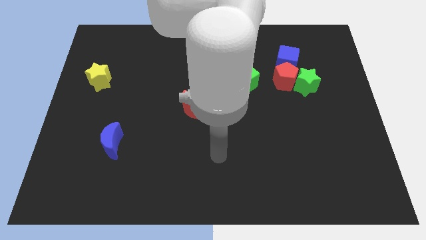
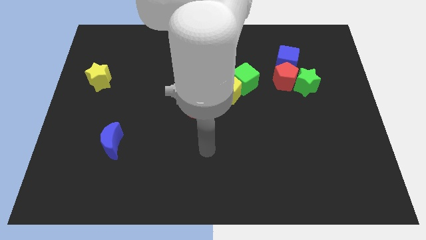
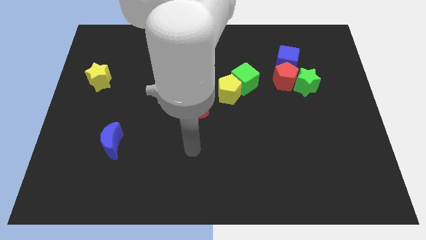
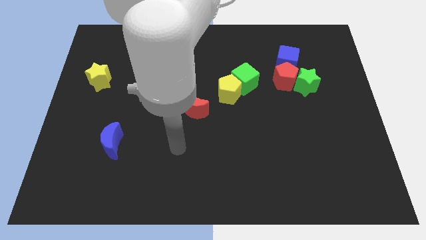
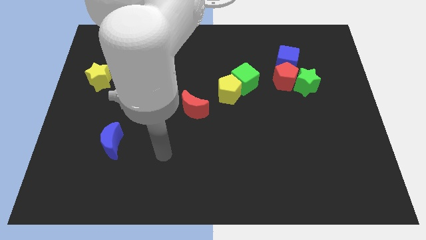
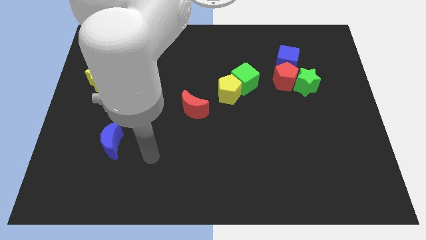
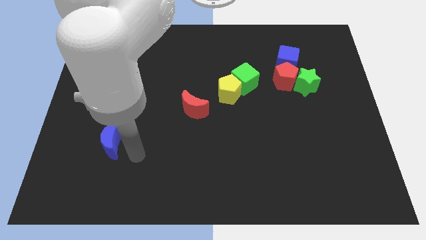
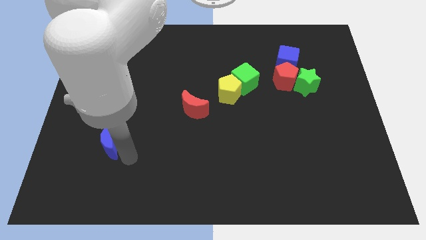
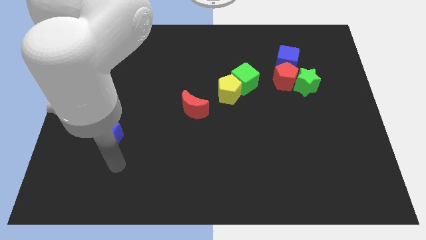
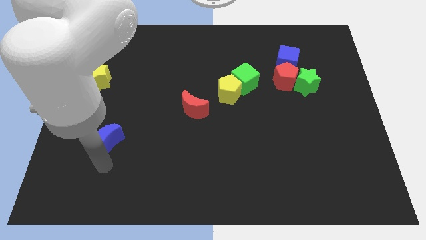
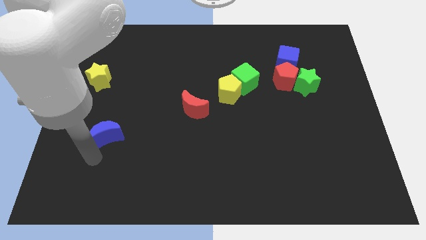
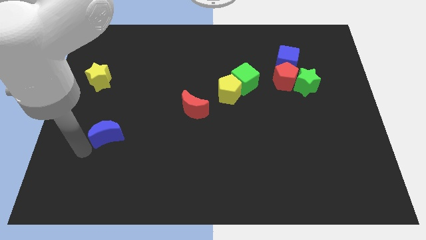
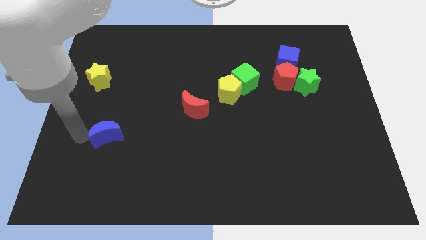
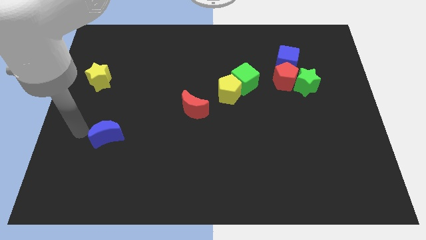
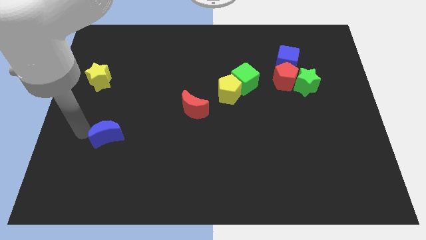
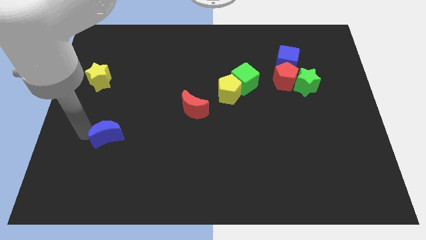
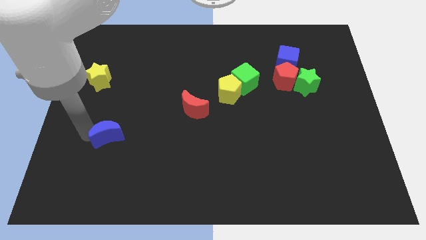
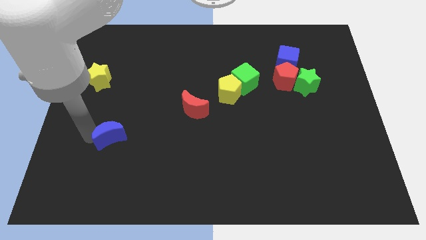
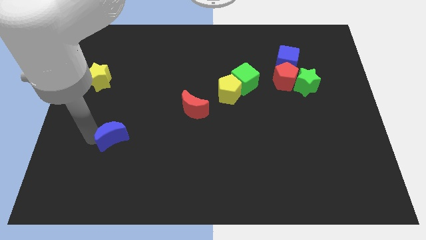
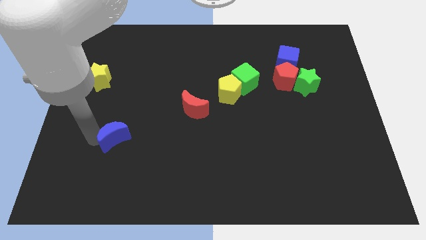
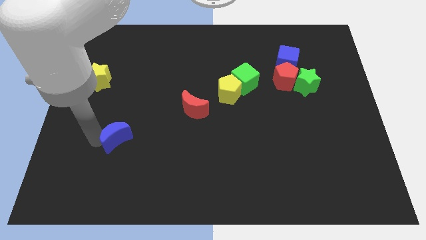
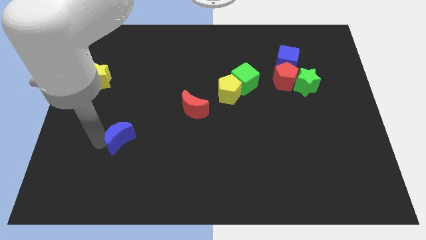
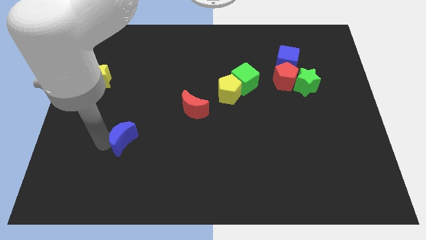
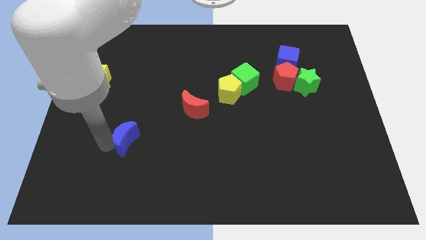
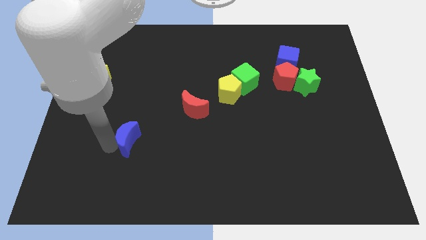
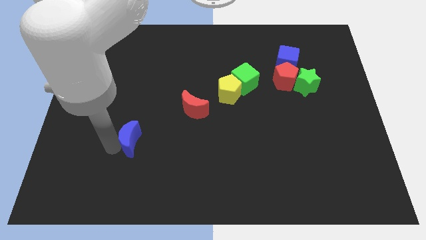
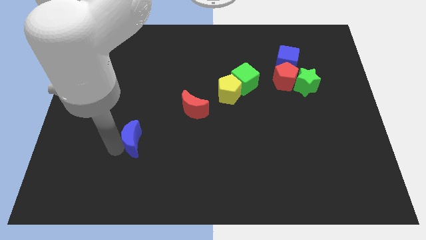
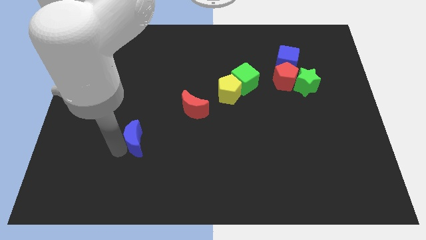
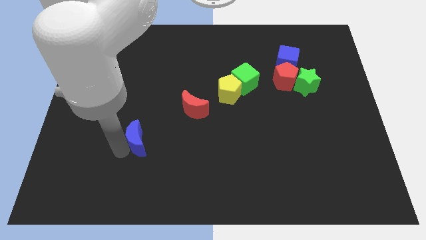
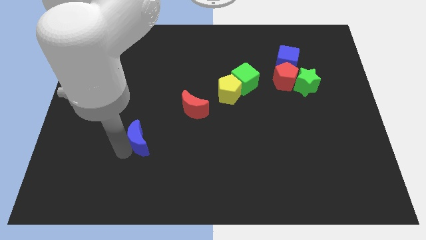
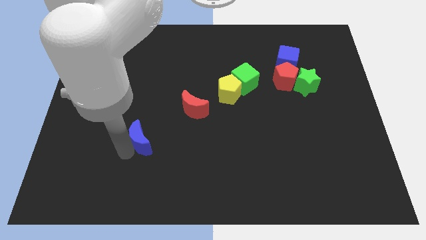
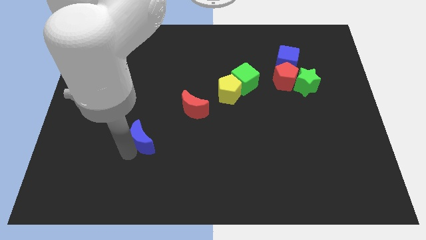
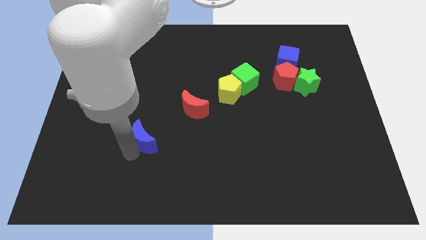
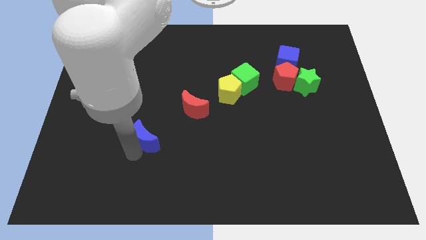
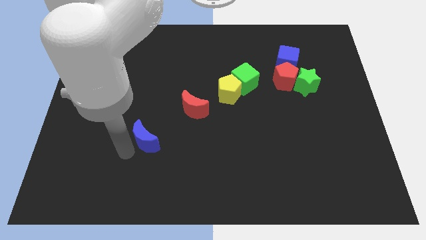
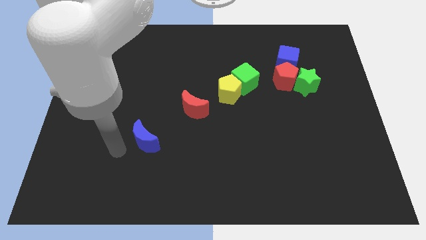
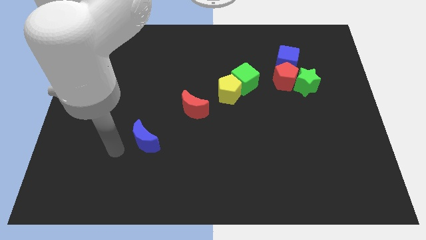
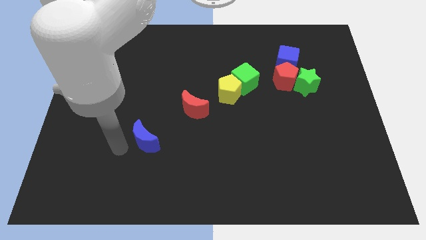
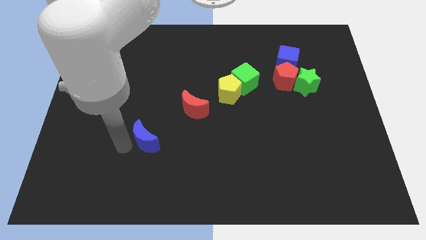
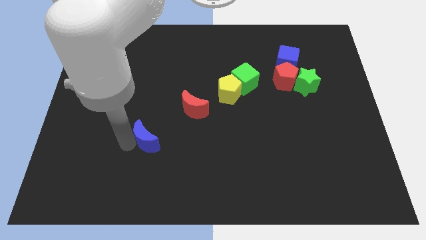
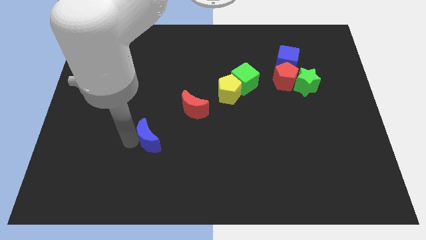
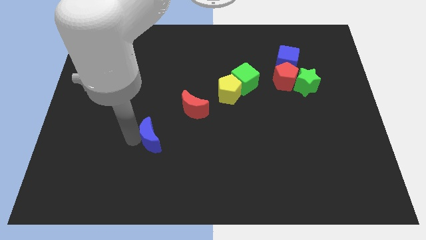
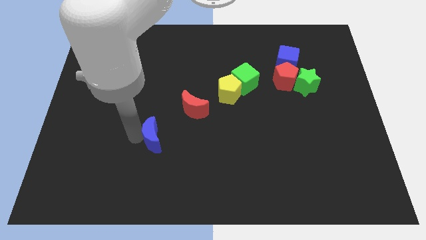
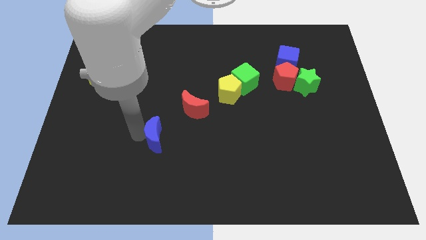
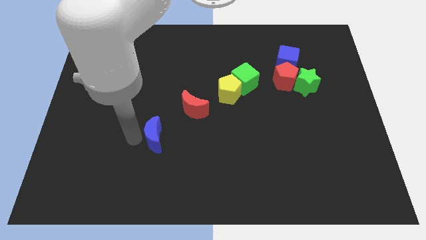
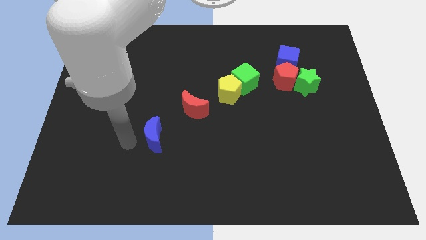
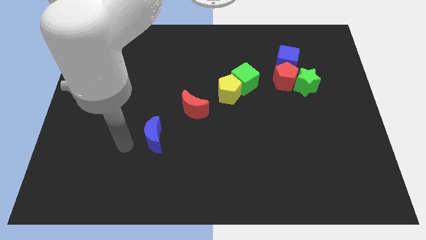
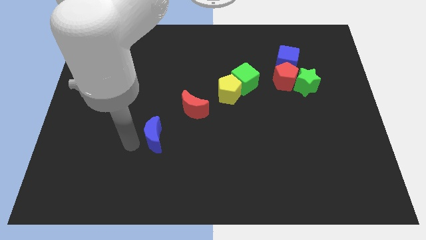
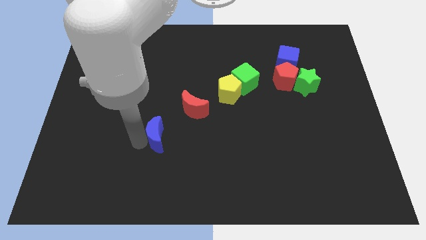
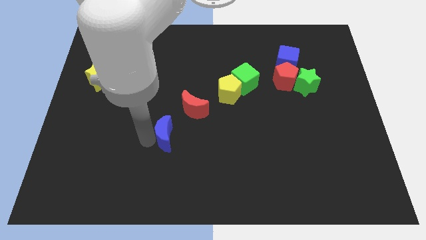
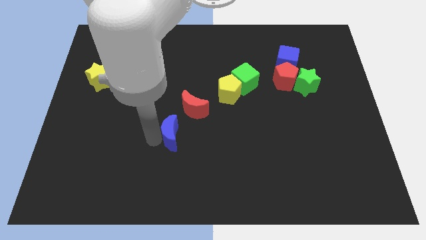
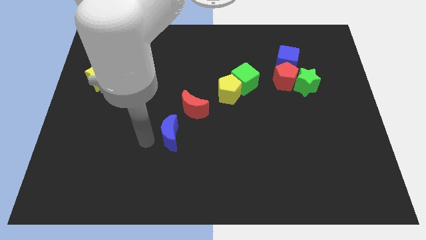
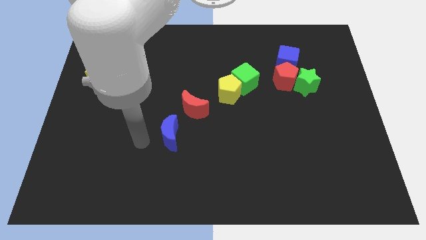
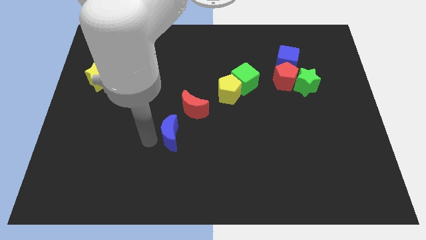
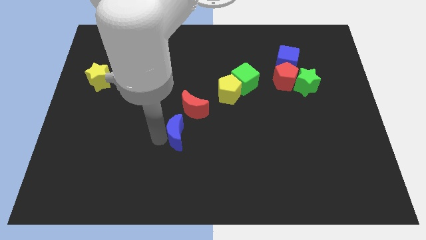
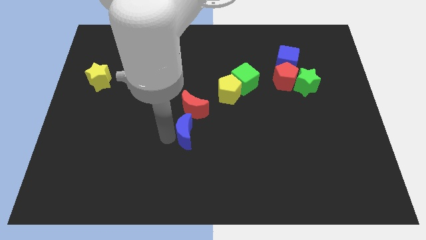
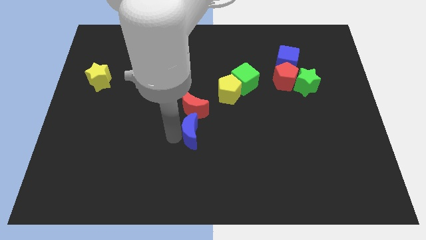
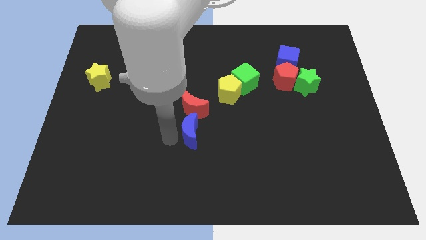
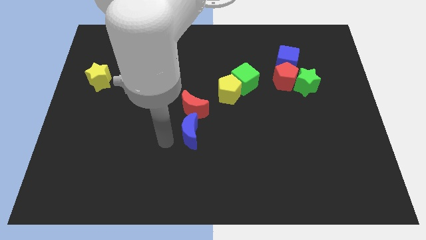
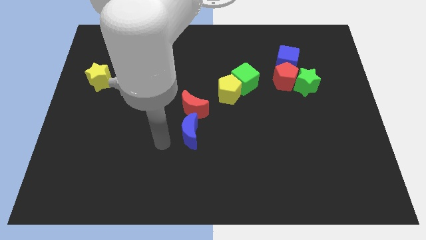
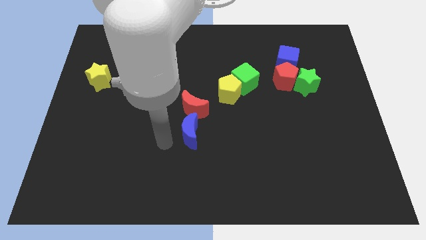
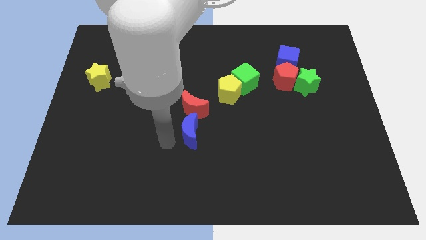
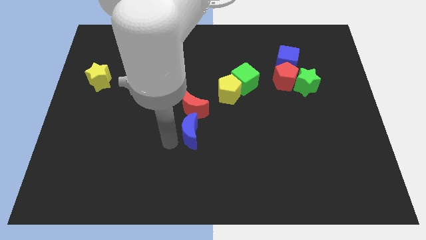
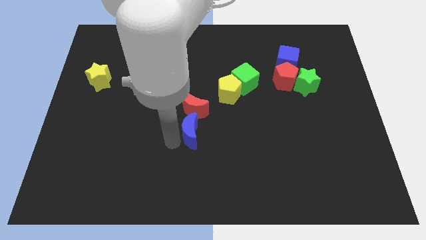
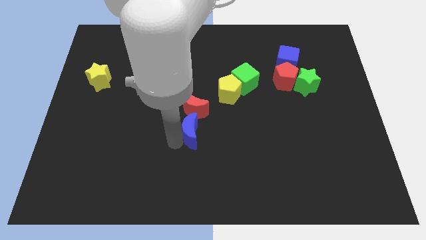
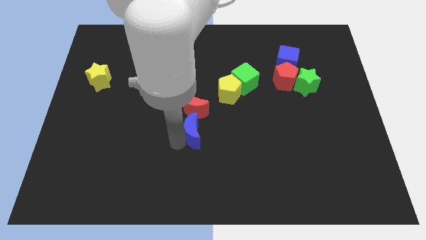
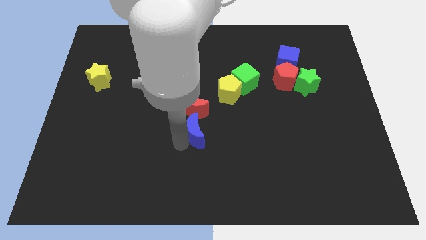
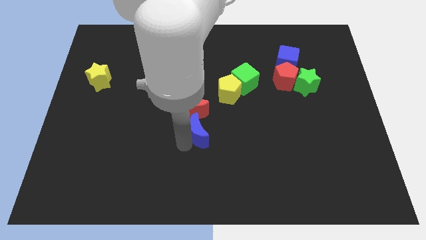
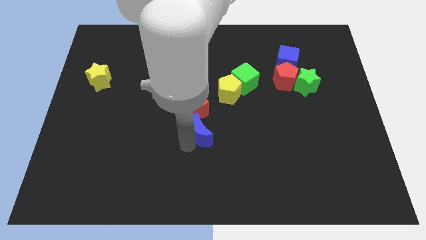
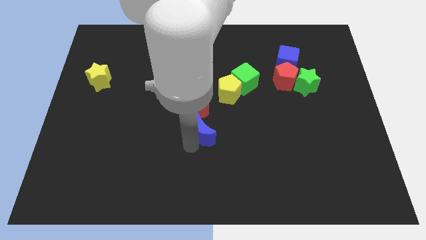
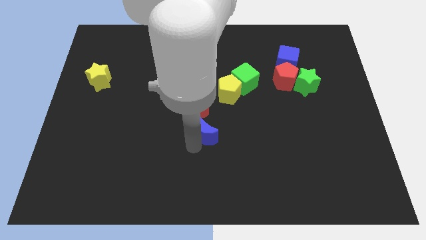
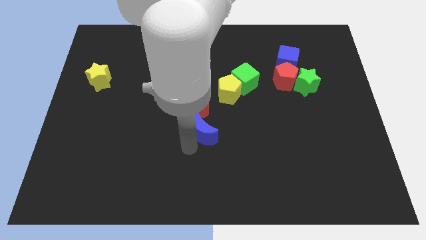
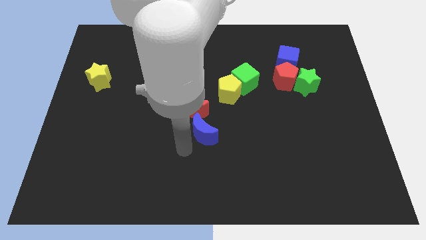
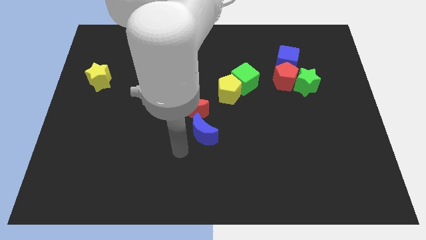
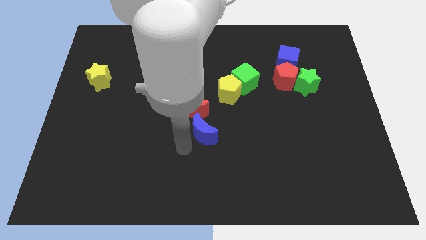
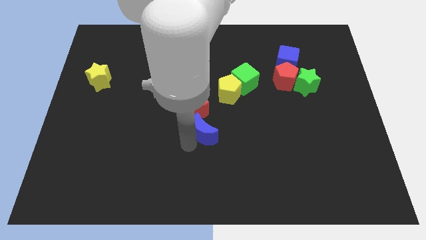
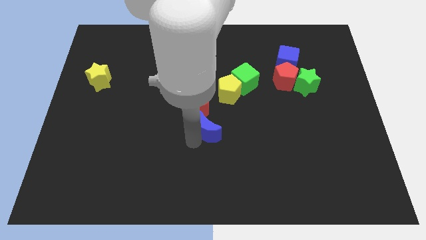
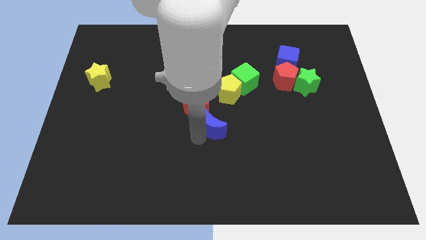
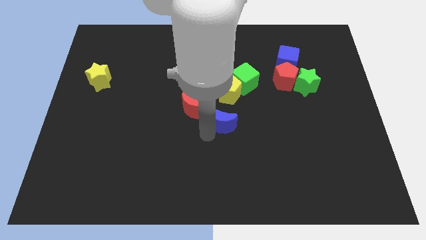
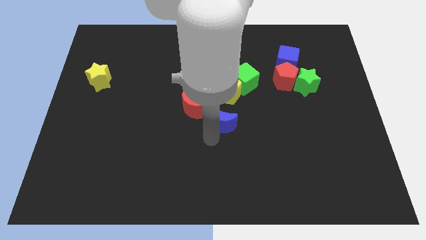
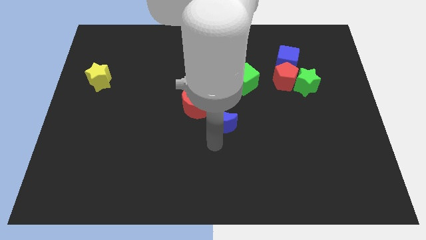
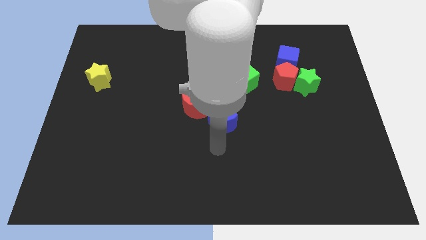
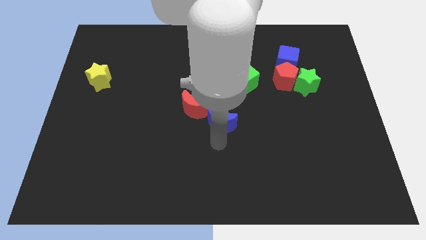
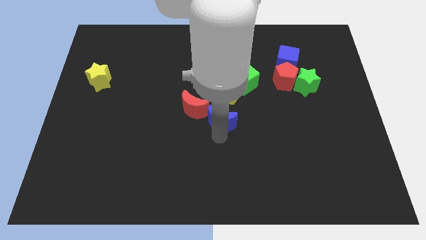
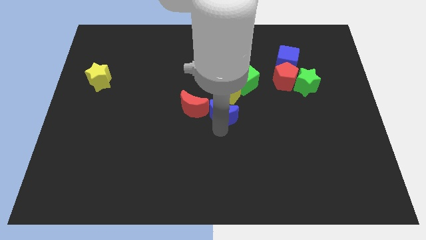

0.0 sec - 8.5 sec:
put the blue moon diagonally down and to the left of the green cube
